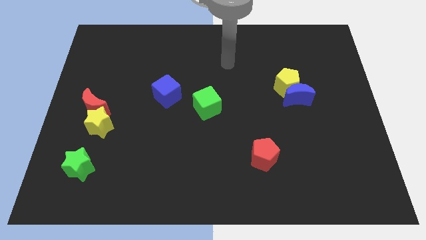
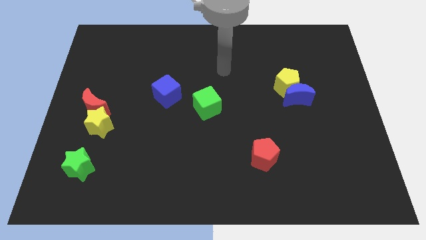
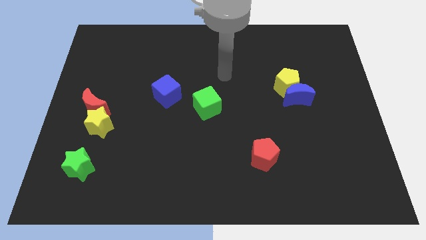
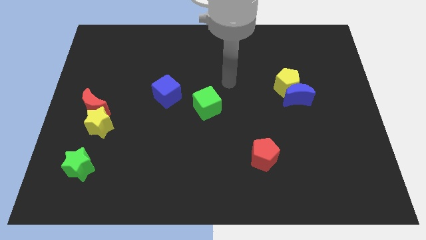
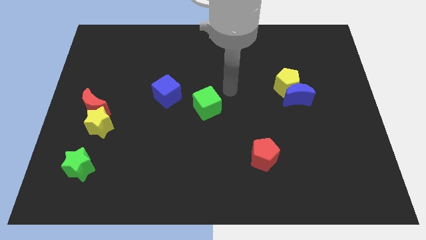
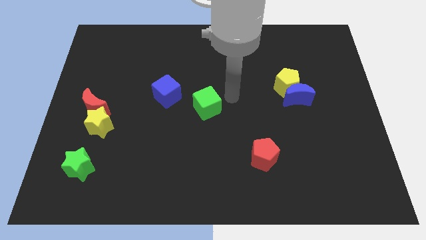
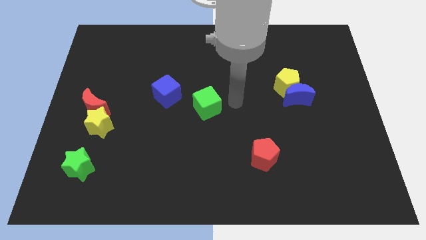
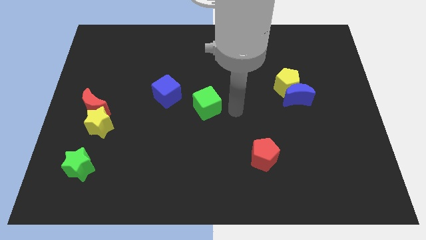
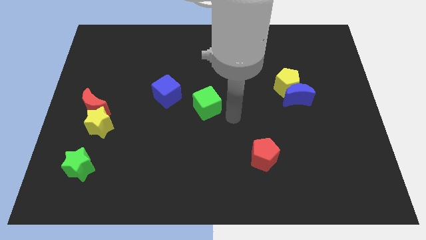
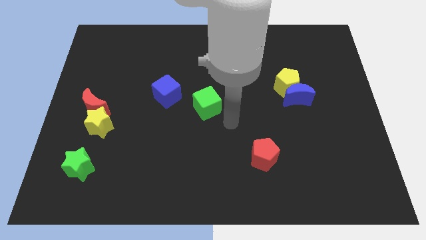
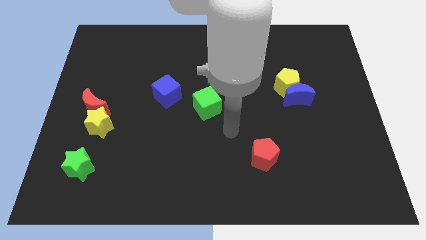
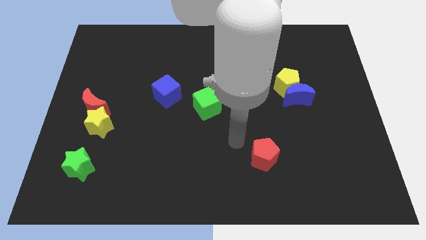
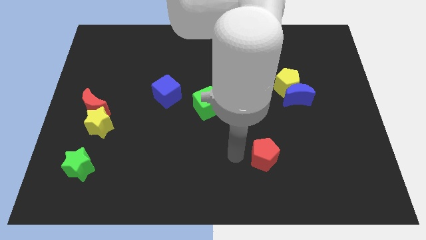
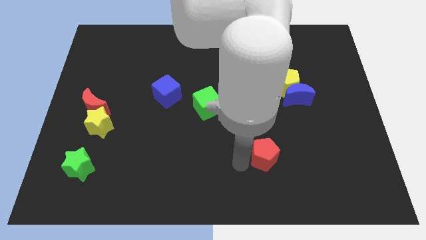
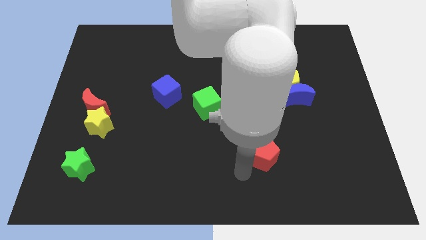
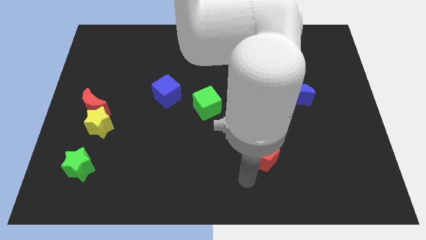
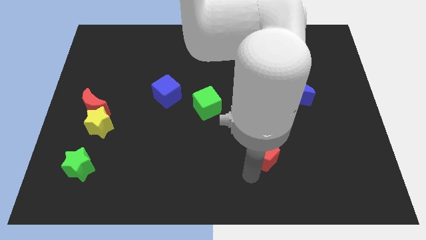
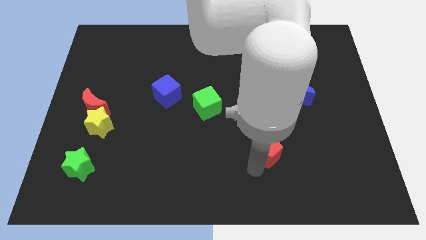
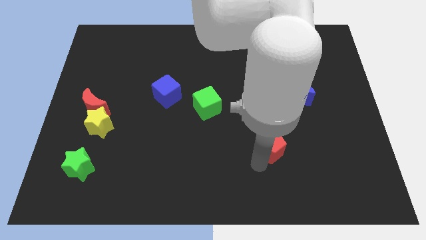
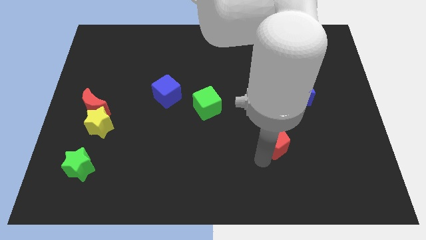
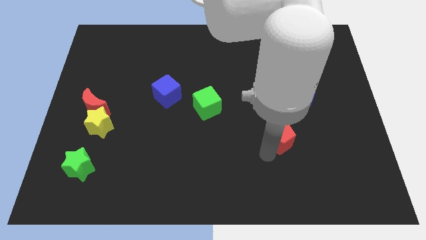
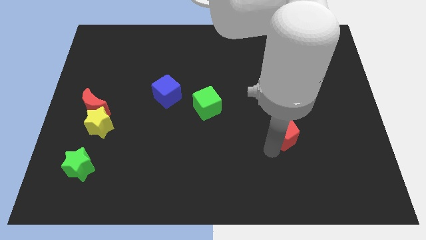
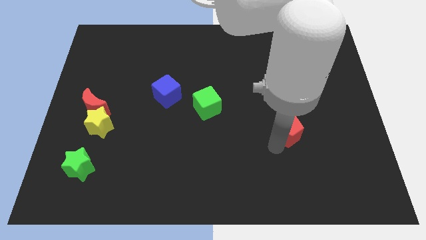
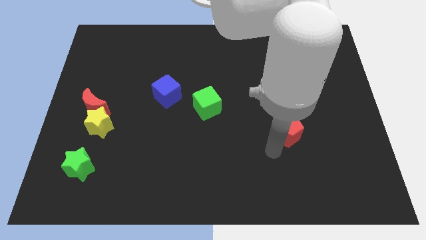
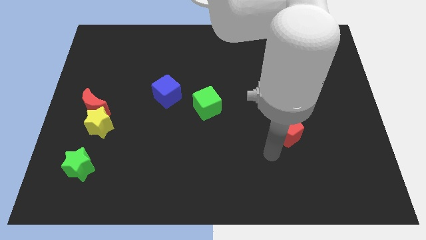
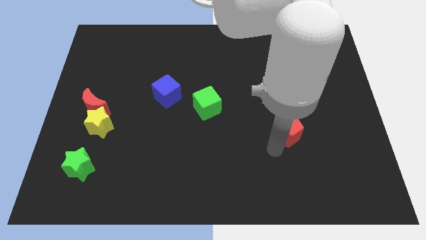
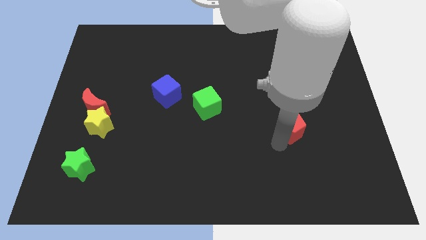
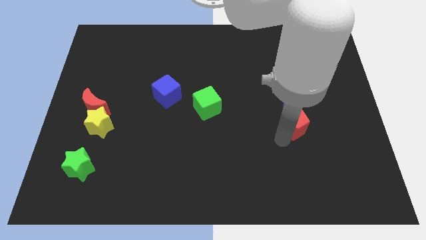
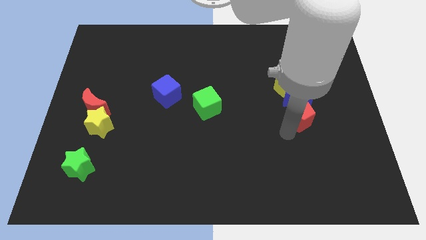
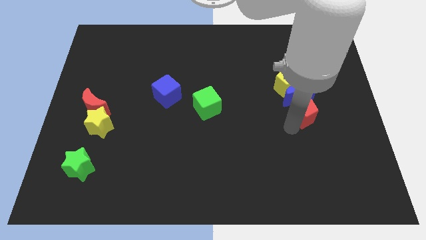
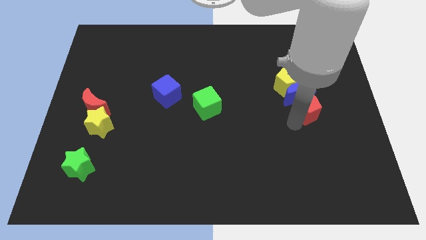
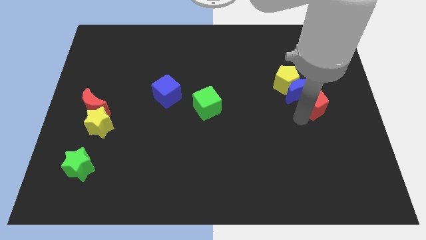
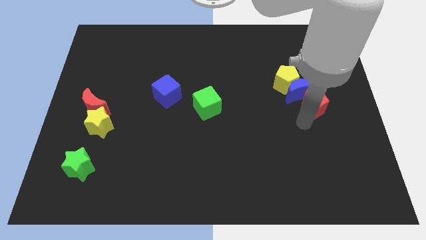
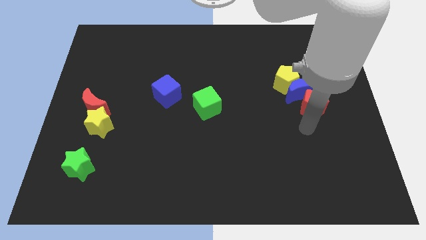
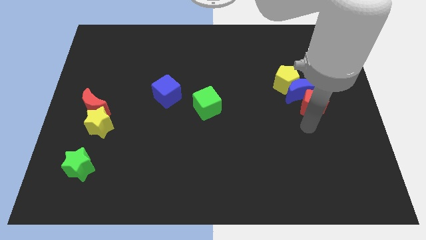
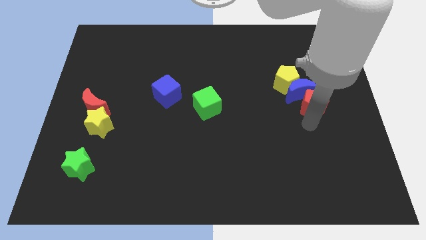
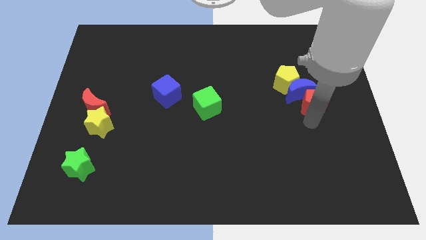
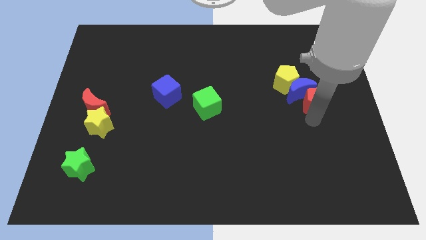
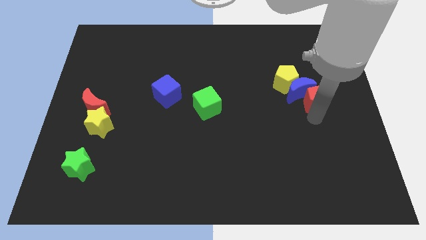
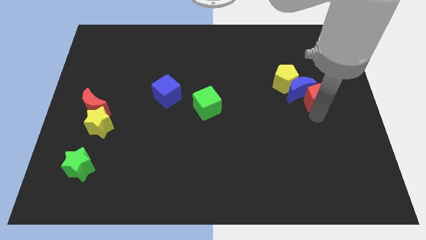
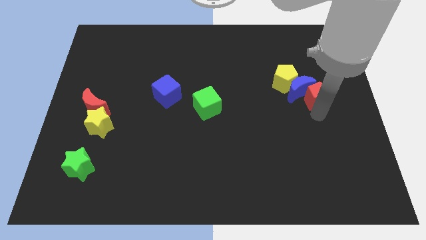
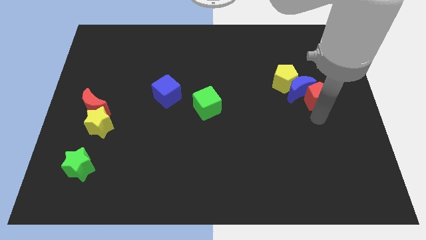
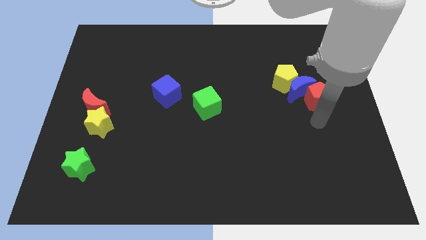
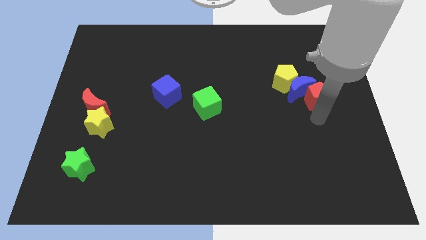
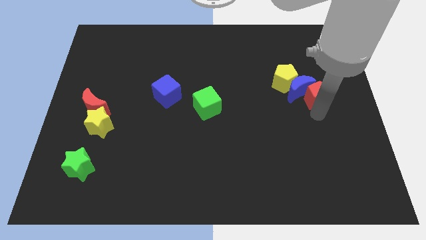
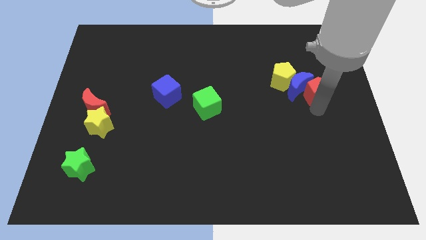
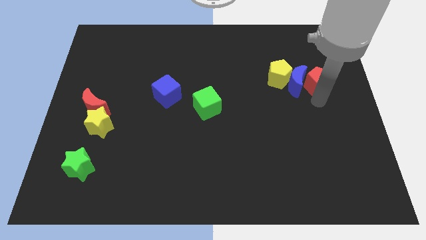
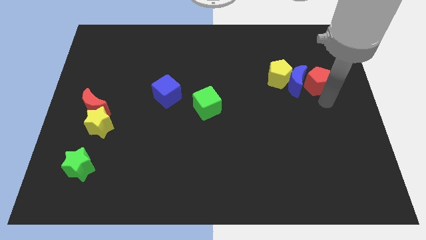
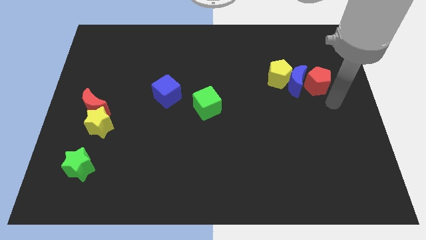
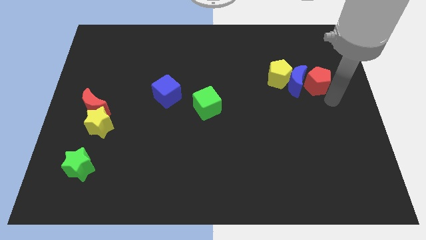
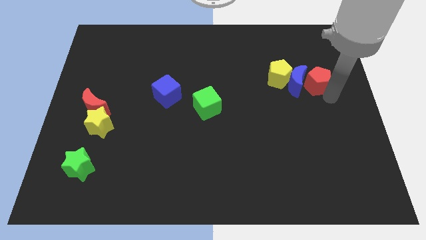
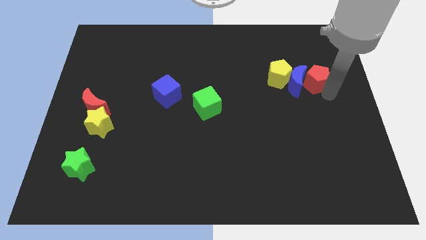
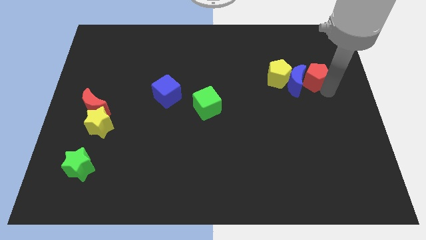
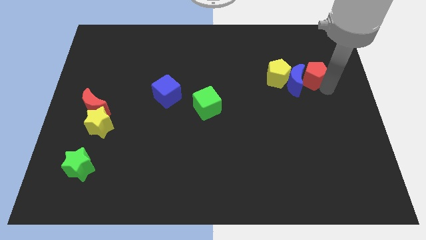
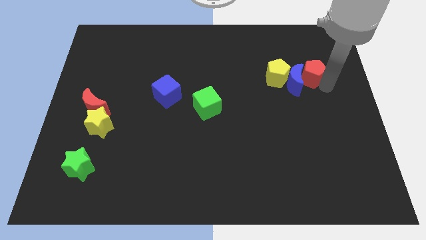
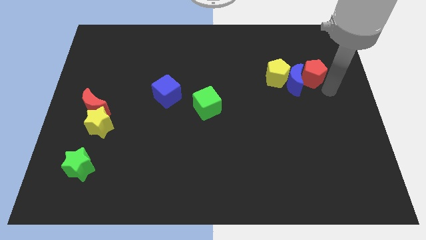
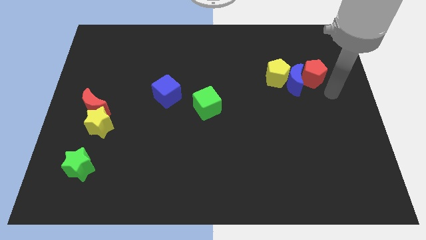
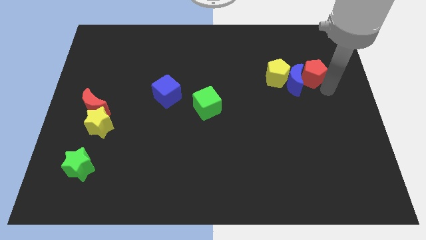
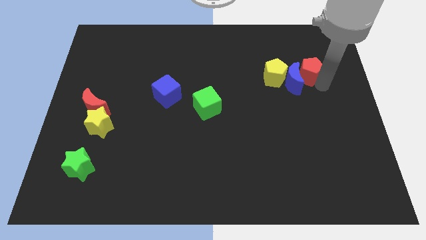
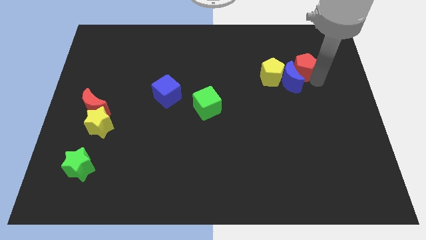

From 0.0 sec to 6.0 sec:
push the red pentagon to the top right of the yellow pentagon

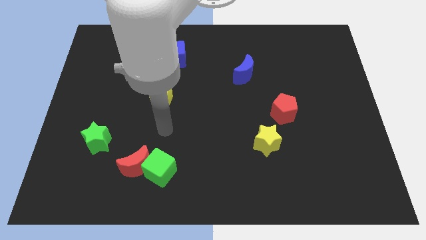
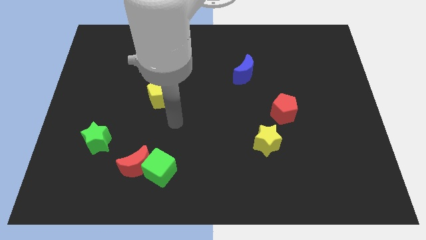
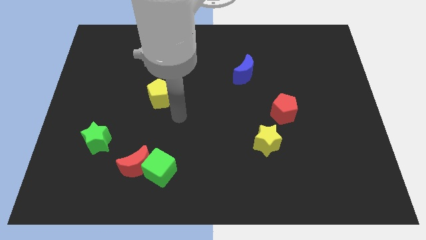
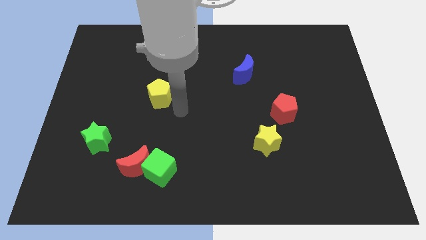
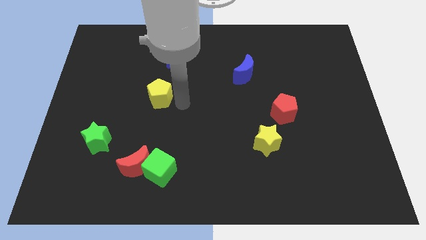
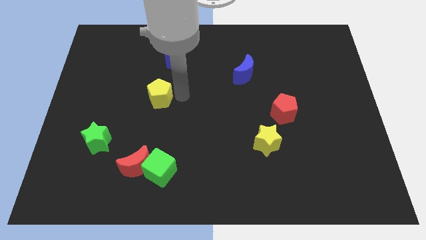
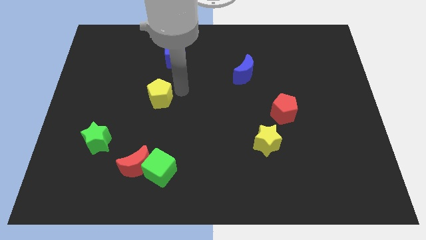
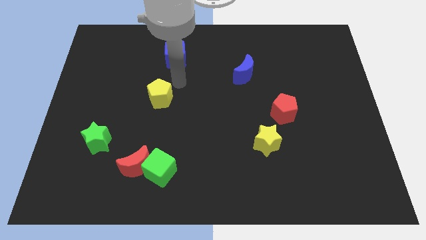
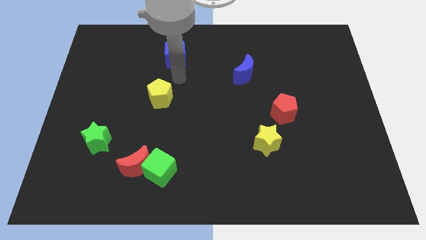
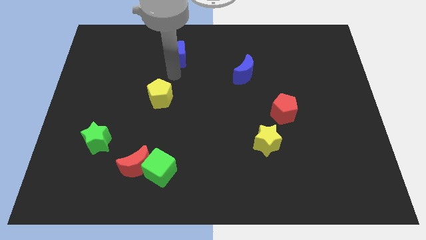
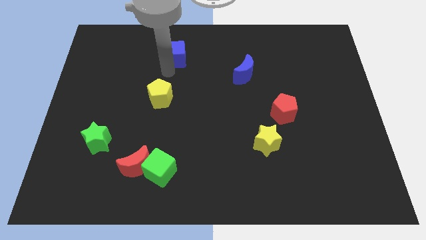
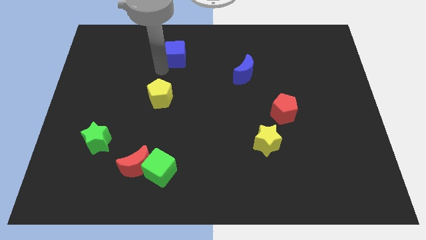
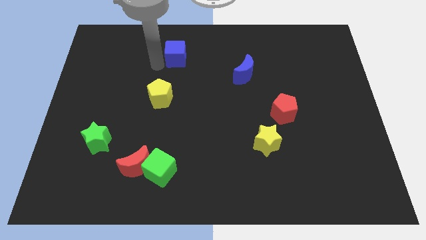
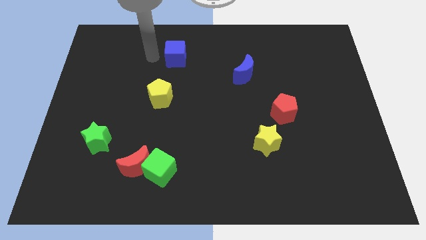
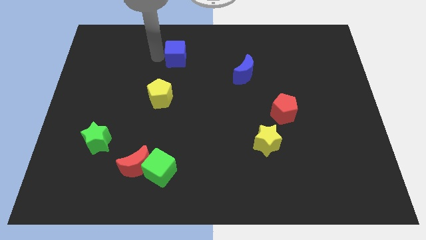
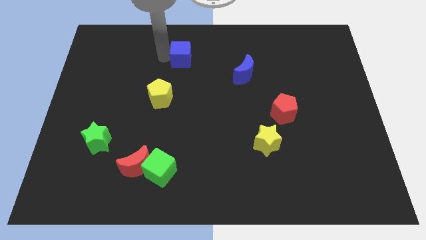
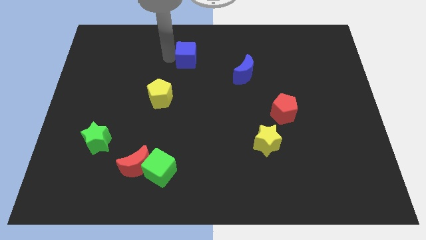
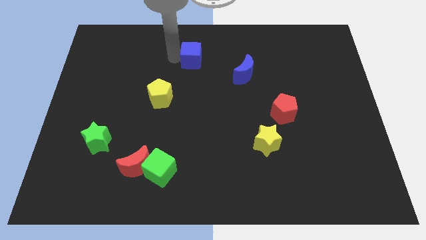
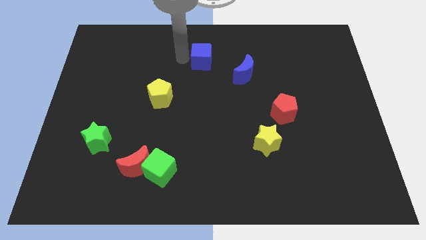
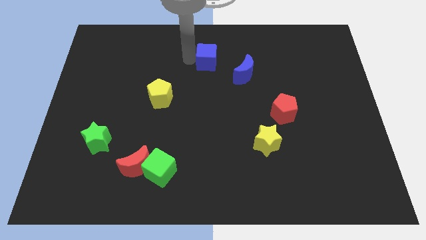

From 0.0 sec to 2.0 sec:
put the blue cube to the top left side of the blue moon
